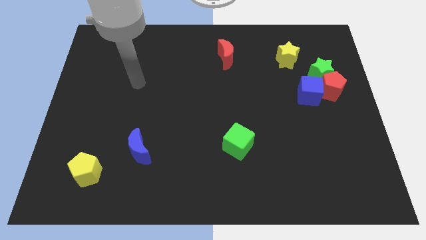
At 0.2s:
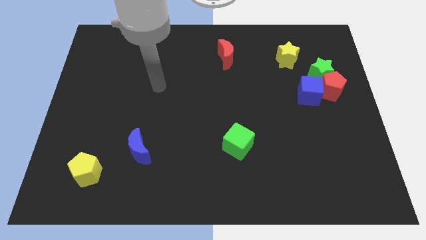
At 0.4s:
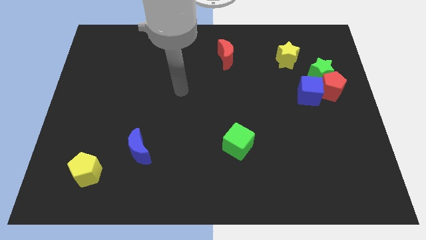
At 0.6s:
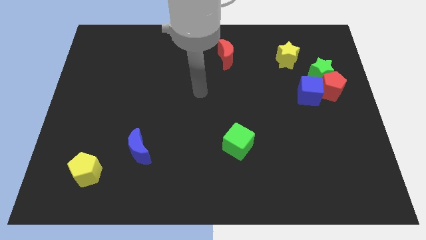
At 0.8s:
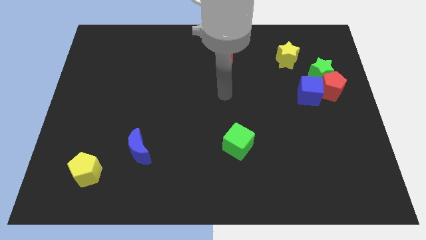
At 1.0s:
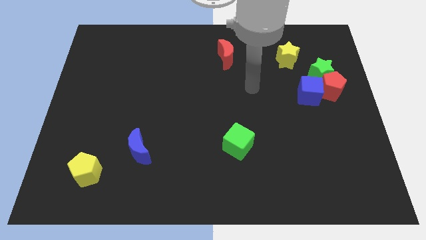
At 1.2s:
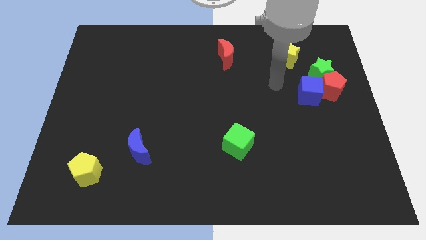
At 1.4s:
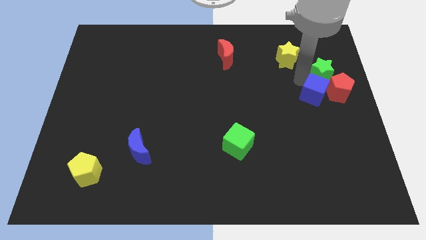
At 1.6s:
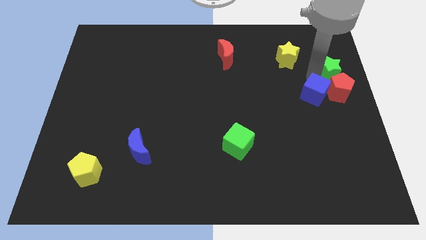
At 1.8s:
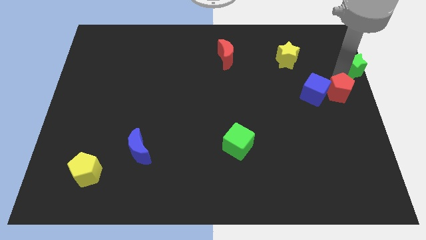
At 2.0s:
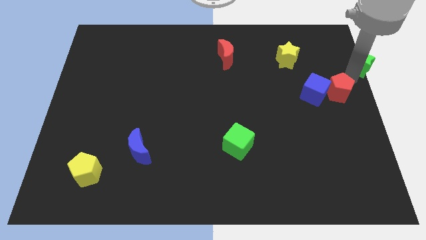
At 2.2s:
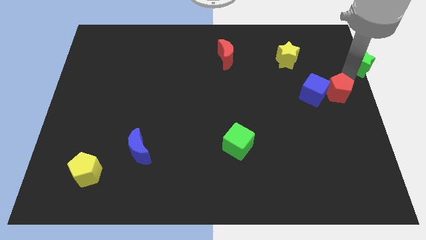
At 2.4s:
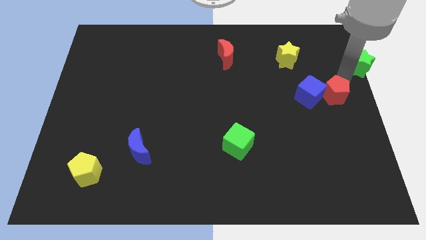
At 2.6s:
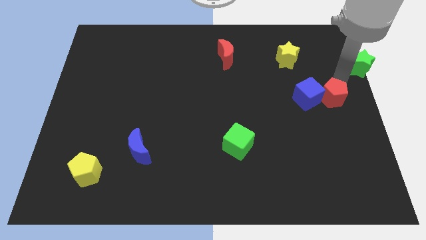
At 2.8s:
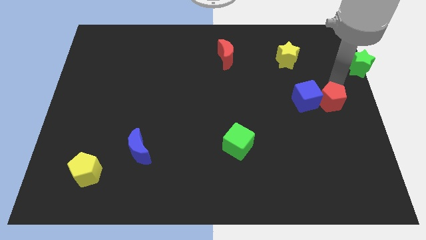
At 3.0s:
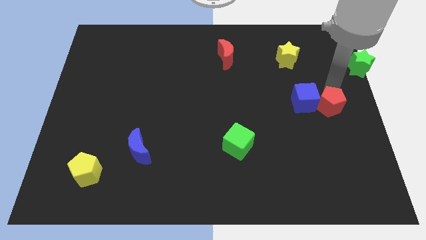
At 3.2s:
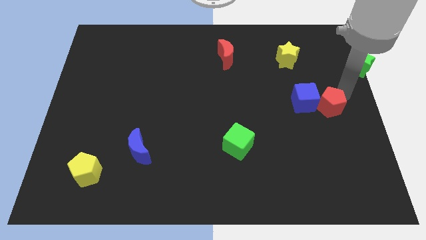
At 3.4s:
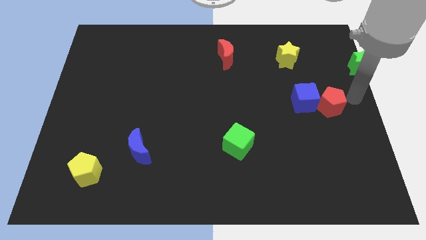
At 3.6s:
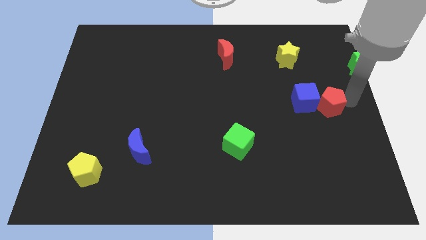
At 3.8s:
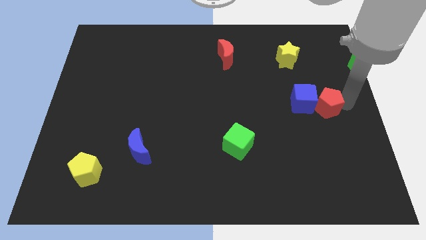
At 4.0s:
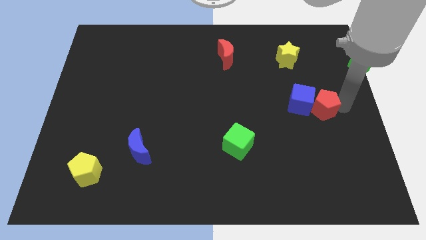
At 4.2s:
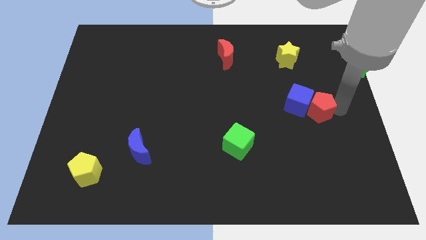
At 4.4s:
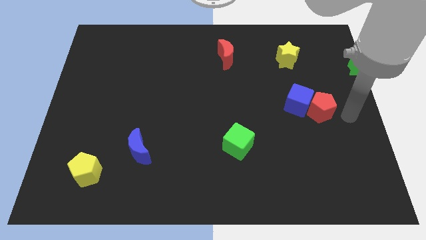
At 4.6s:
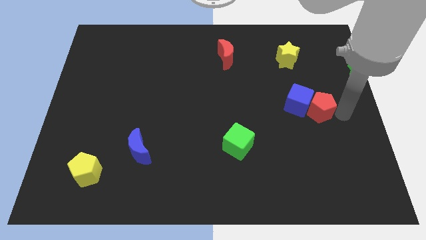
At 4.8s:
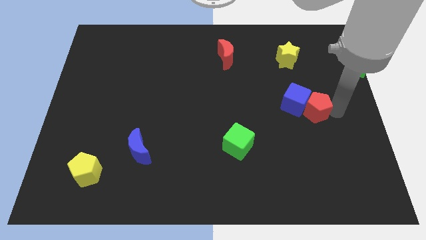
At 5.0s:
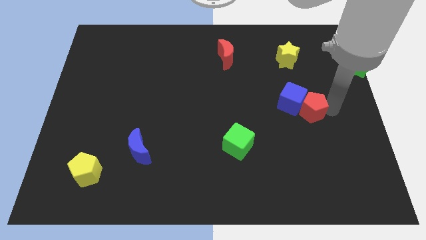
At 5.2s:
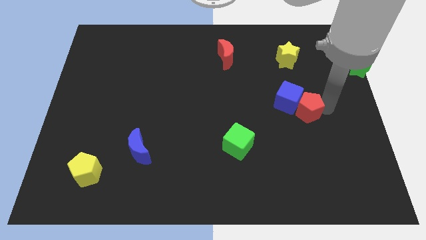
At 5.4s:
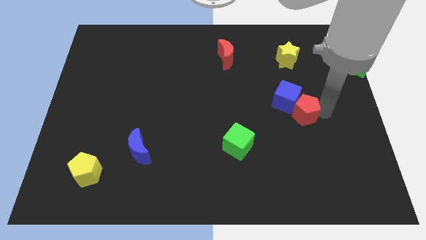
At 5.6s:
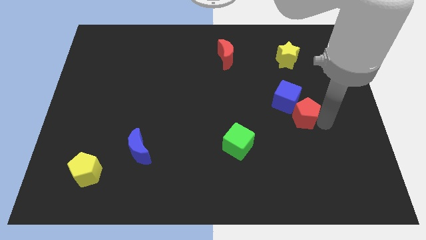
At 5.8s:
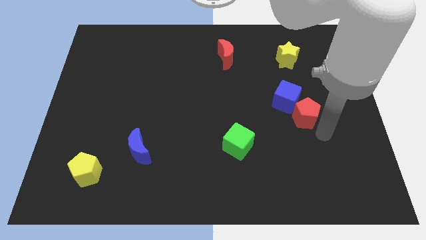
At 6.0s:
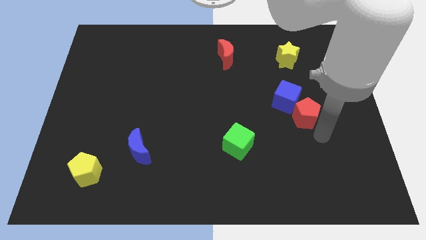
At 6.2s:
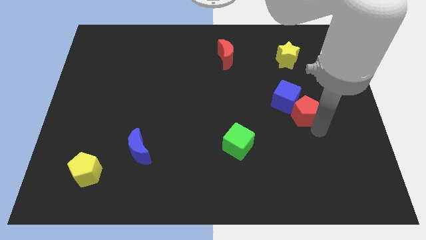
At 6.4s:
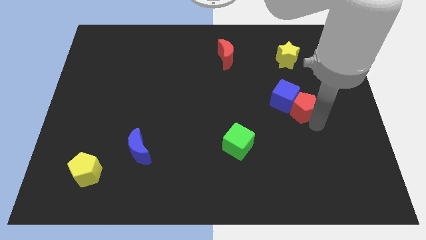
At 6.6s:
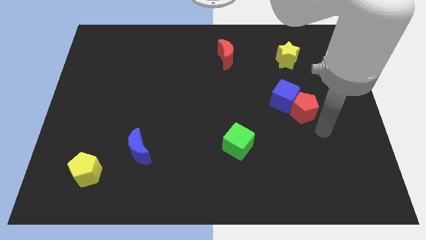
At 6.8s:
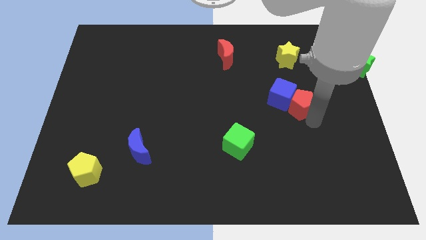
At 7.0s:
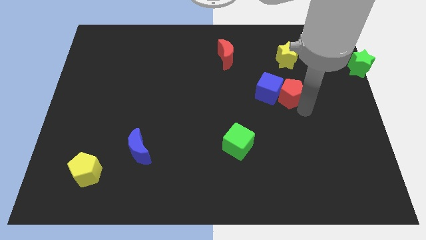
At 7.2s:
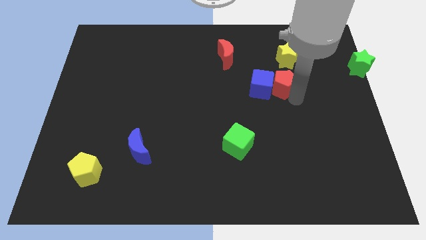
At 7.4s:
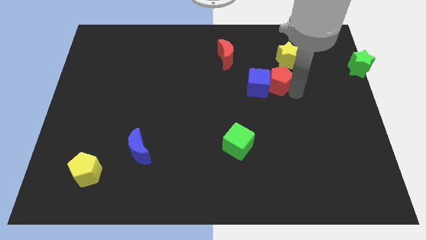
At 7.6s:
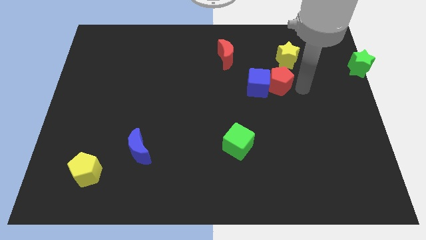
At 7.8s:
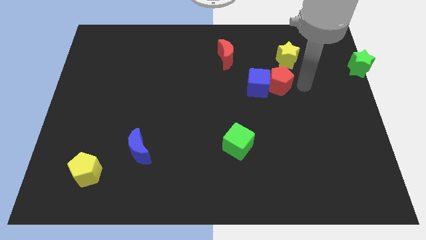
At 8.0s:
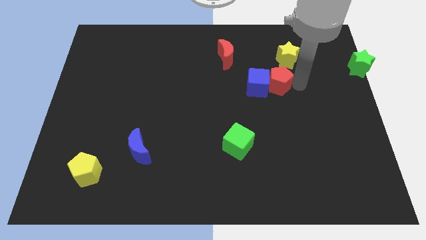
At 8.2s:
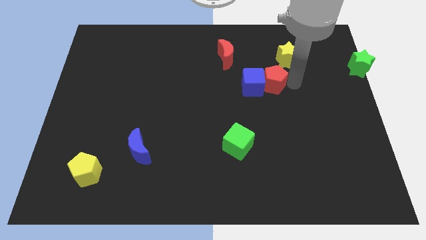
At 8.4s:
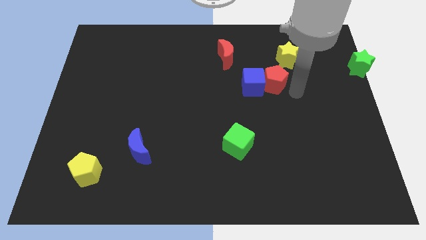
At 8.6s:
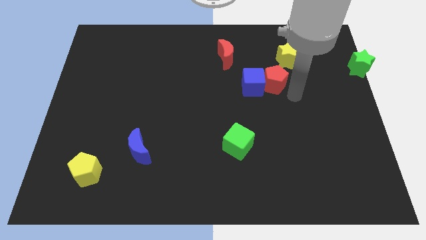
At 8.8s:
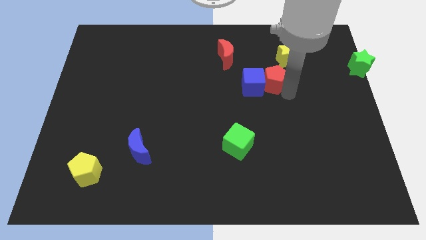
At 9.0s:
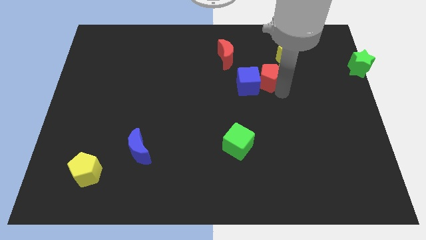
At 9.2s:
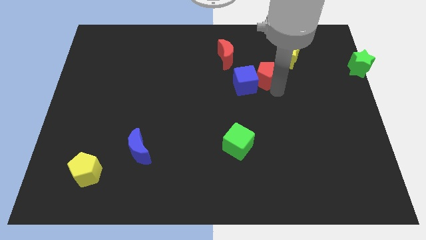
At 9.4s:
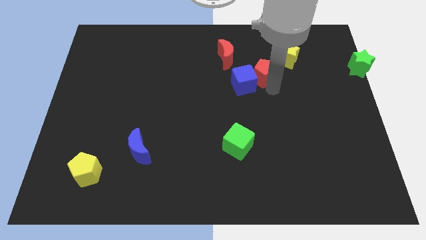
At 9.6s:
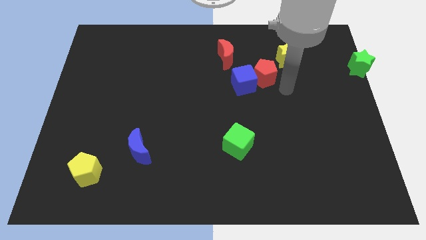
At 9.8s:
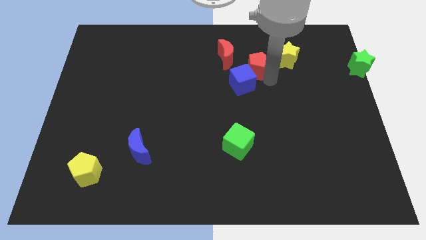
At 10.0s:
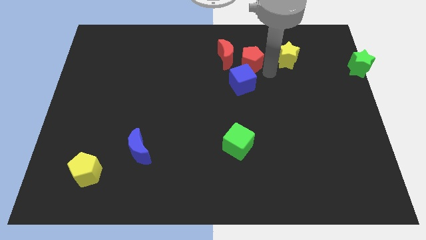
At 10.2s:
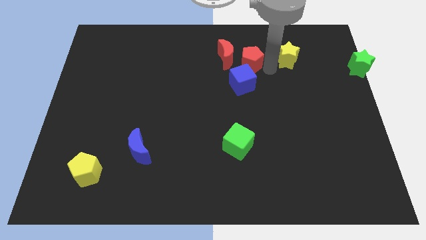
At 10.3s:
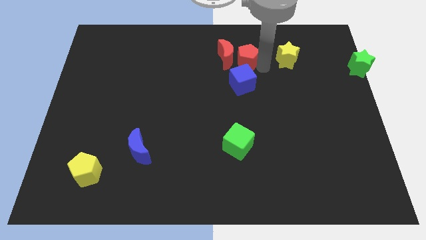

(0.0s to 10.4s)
push the red pentagon next to the red moon

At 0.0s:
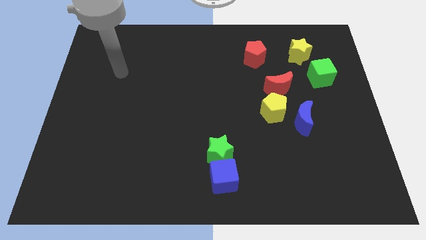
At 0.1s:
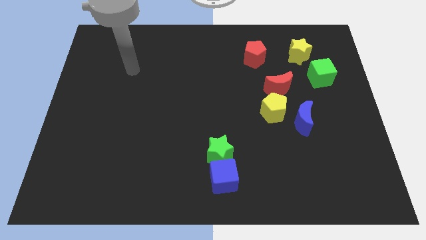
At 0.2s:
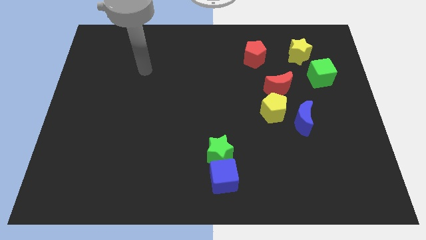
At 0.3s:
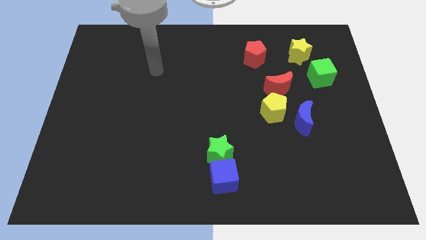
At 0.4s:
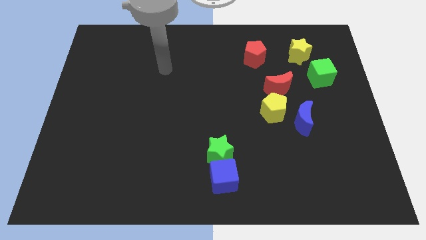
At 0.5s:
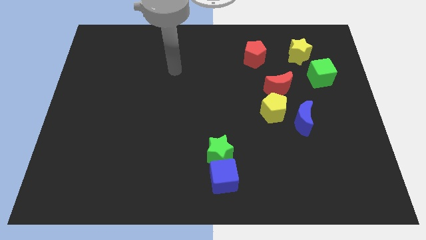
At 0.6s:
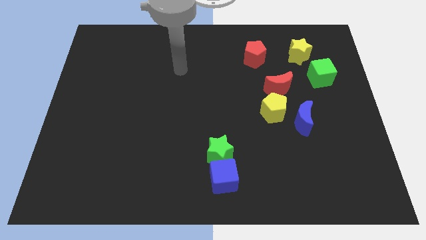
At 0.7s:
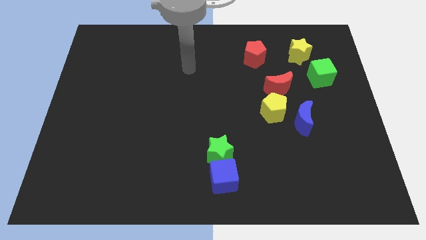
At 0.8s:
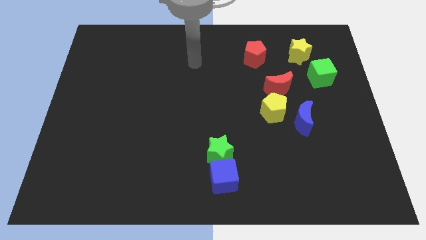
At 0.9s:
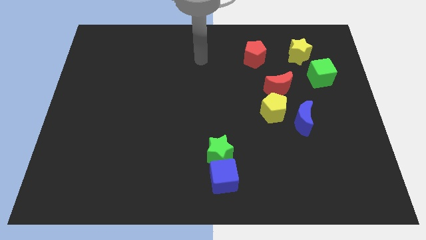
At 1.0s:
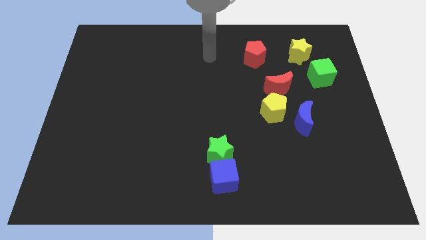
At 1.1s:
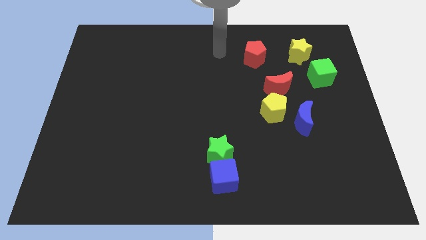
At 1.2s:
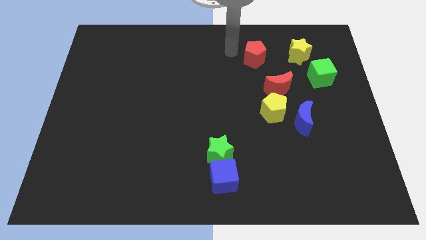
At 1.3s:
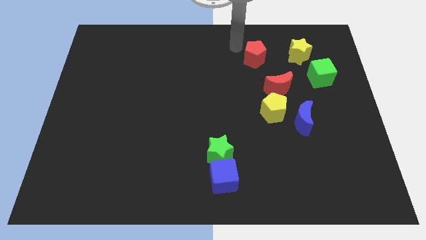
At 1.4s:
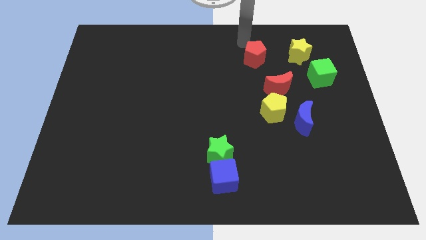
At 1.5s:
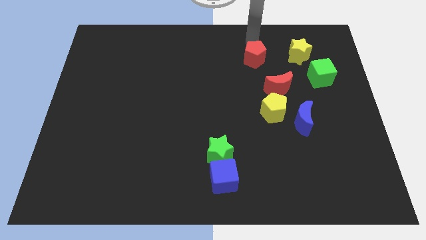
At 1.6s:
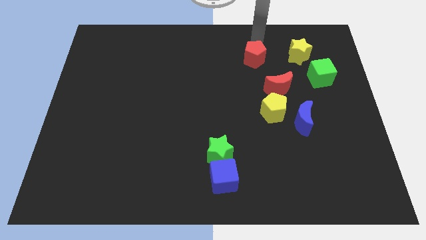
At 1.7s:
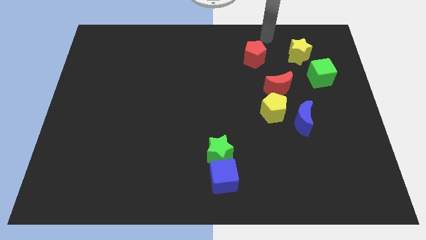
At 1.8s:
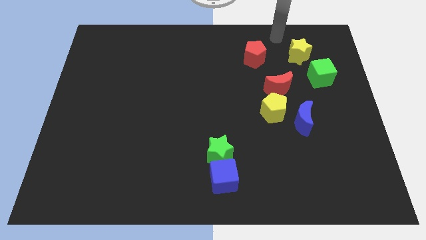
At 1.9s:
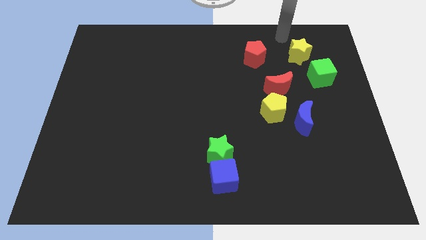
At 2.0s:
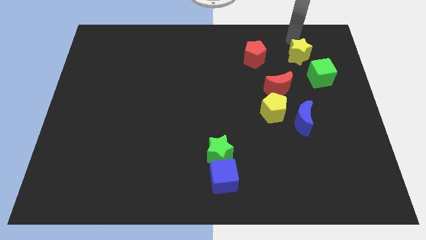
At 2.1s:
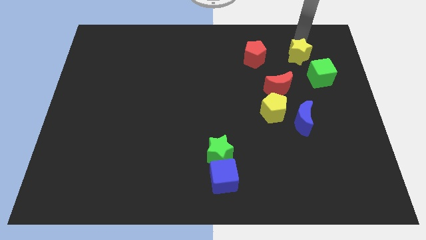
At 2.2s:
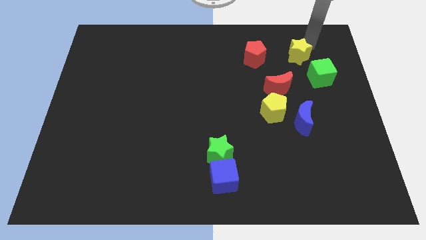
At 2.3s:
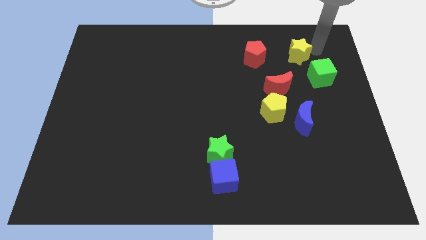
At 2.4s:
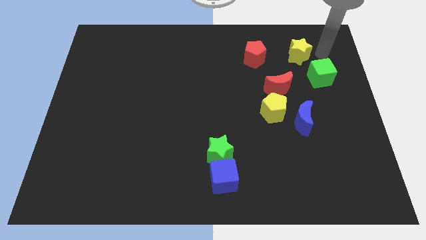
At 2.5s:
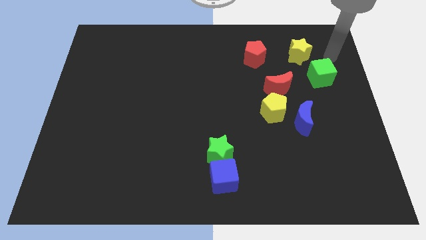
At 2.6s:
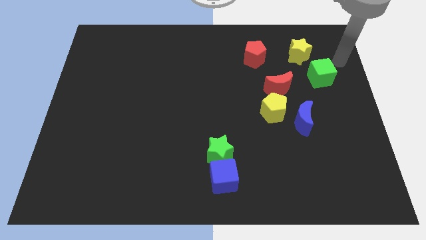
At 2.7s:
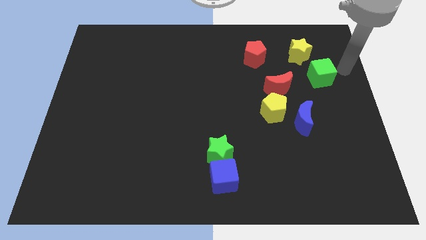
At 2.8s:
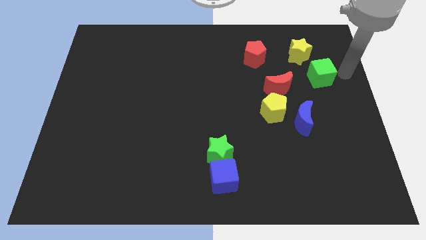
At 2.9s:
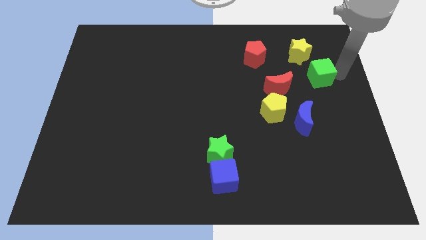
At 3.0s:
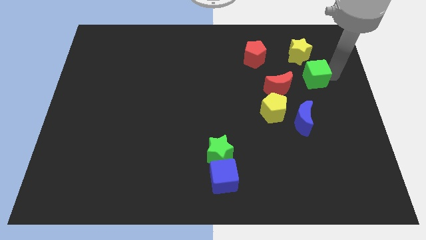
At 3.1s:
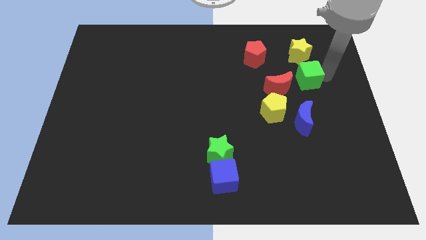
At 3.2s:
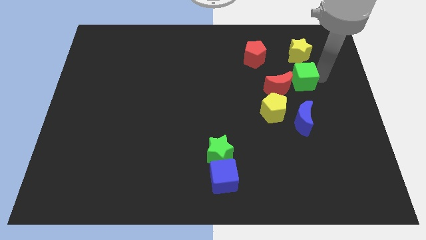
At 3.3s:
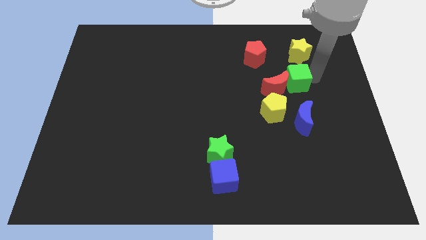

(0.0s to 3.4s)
put the green cube to the red moon
